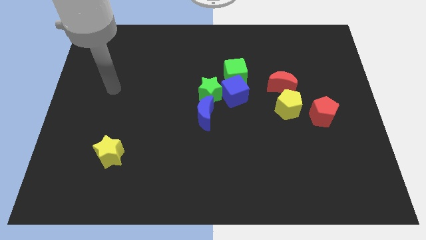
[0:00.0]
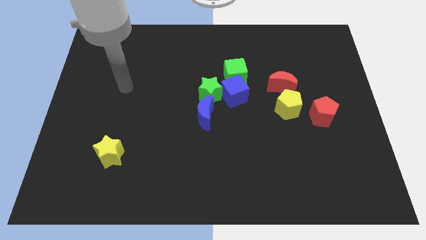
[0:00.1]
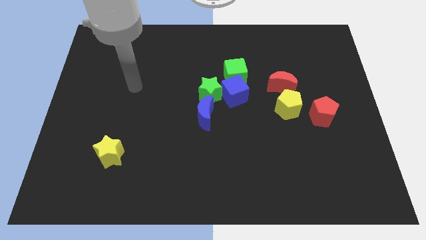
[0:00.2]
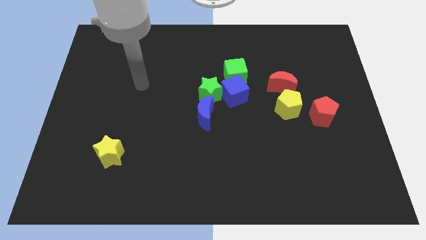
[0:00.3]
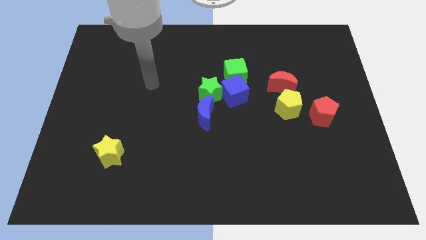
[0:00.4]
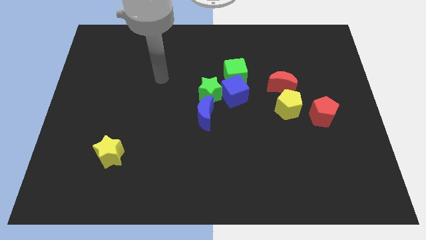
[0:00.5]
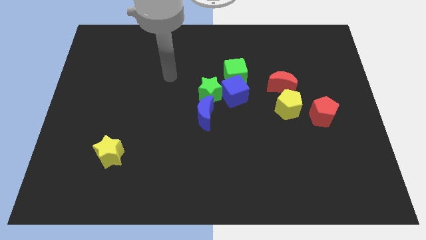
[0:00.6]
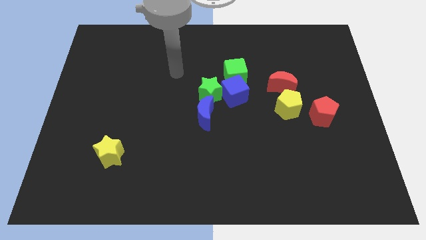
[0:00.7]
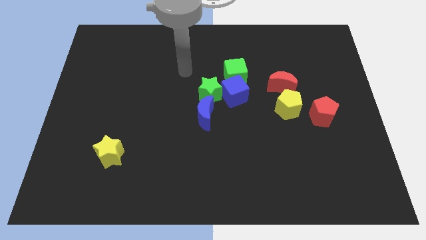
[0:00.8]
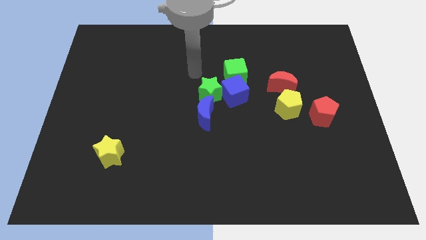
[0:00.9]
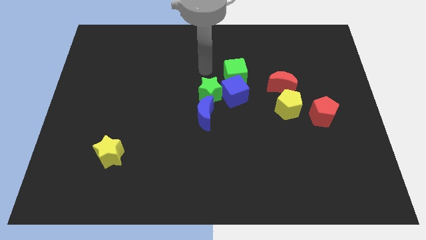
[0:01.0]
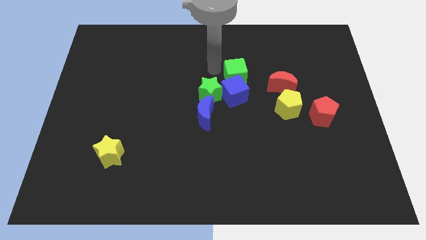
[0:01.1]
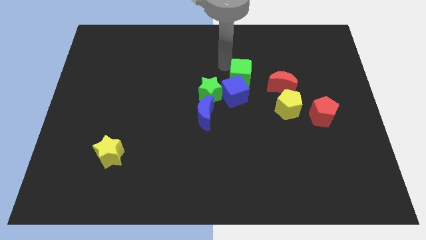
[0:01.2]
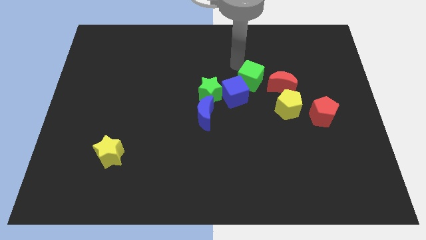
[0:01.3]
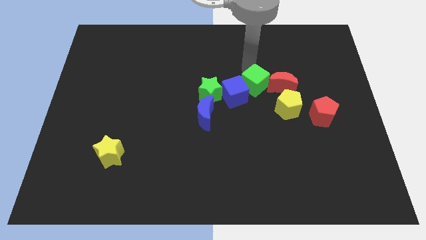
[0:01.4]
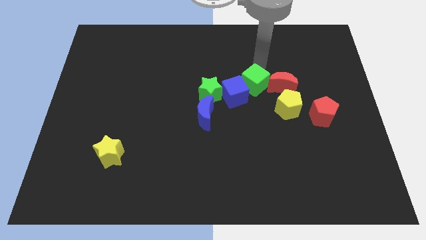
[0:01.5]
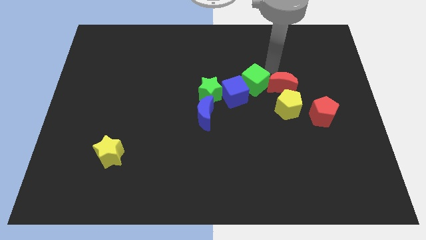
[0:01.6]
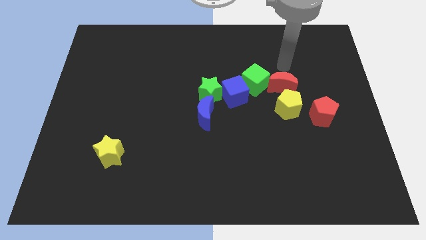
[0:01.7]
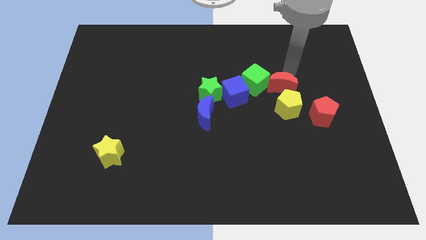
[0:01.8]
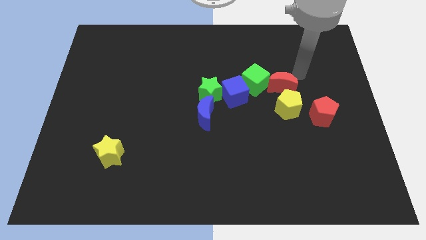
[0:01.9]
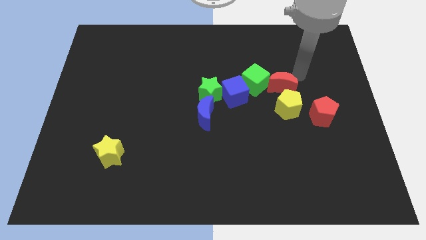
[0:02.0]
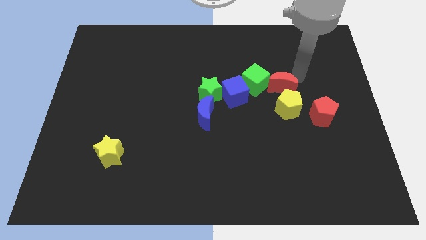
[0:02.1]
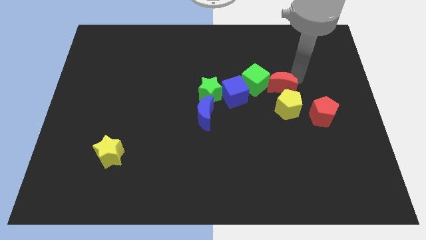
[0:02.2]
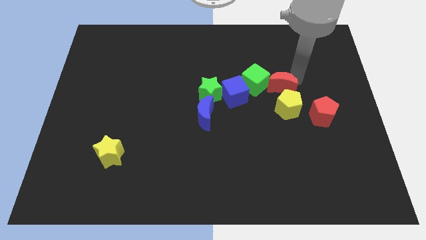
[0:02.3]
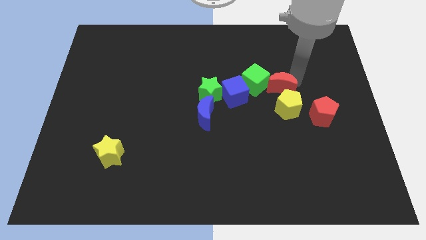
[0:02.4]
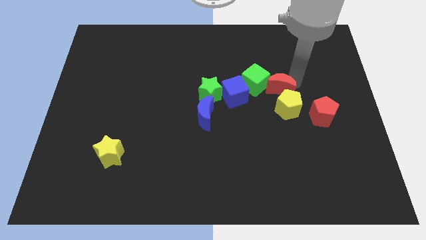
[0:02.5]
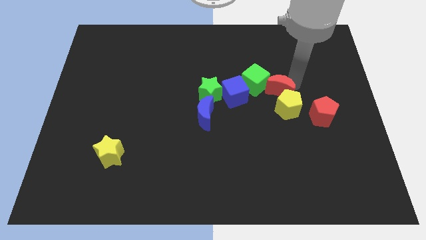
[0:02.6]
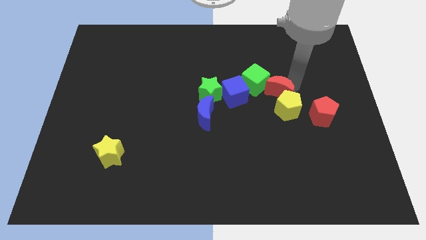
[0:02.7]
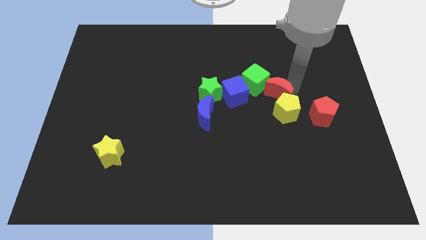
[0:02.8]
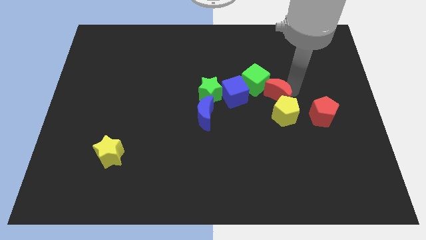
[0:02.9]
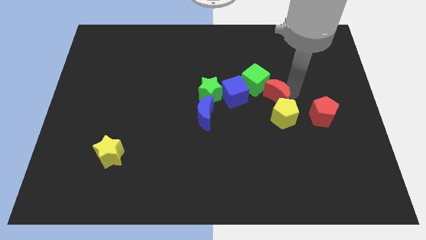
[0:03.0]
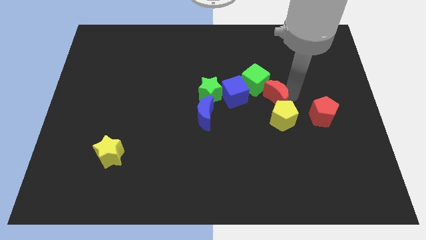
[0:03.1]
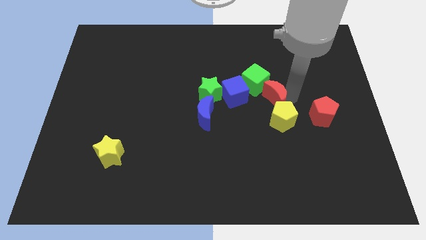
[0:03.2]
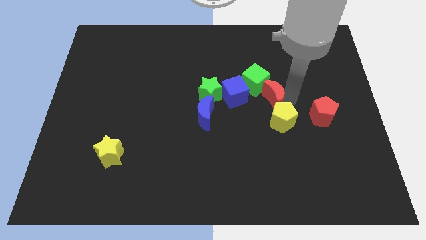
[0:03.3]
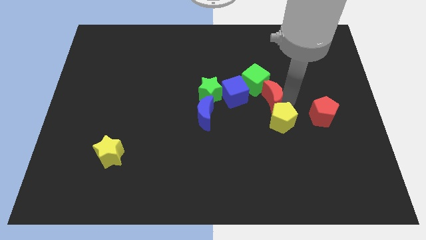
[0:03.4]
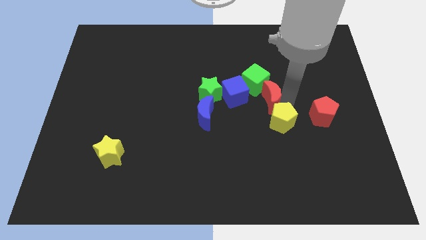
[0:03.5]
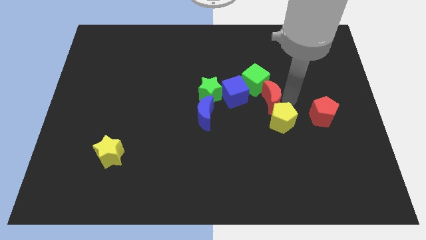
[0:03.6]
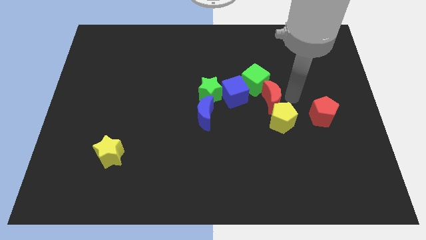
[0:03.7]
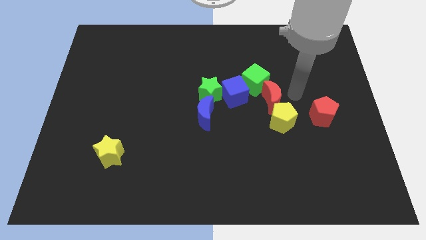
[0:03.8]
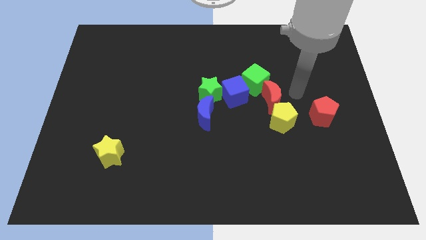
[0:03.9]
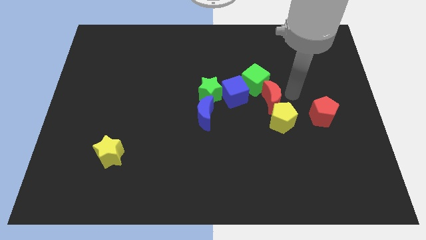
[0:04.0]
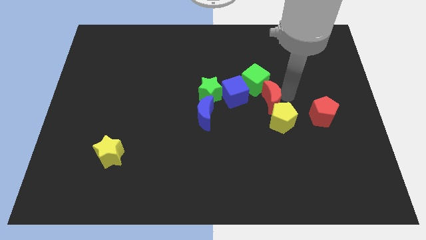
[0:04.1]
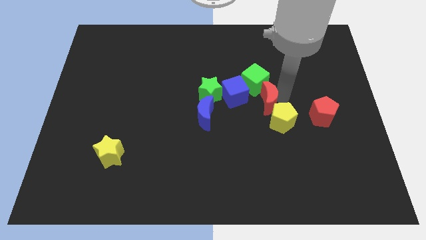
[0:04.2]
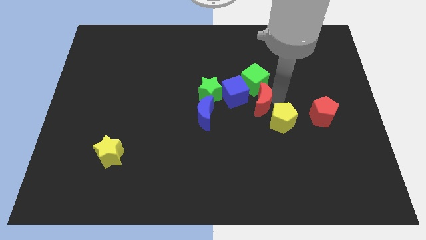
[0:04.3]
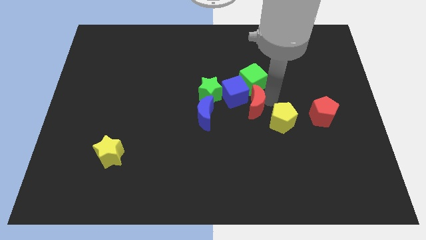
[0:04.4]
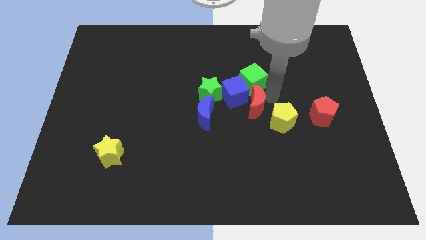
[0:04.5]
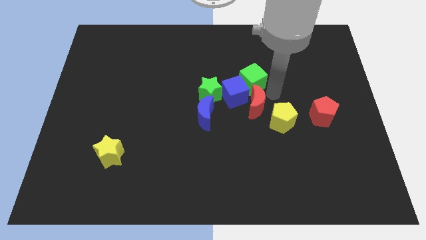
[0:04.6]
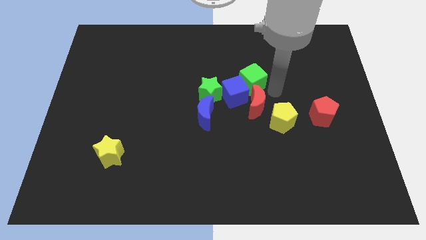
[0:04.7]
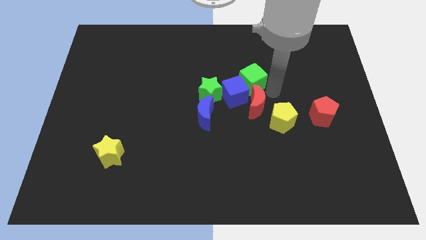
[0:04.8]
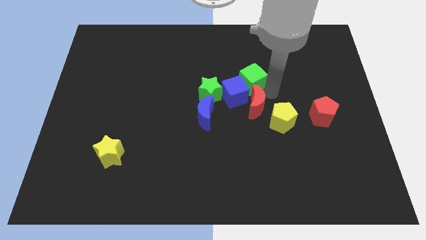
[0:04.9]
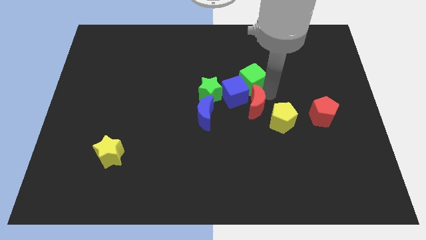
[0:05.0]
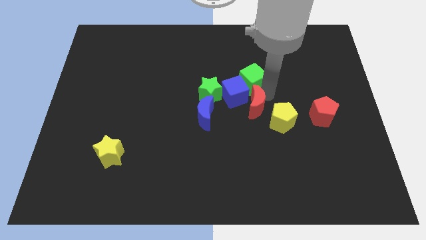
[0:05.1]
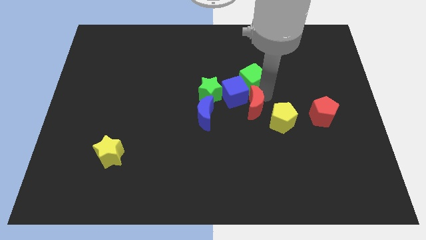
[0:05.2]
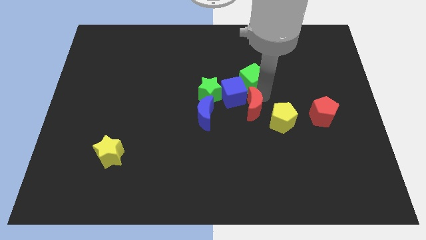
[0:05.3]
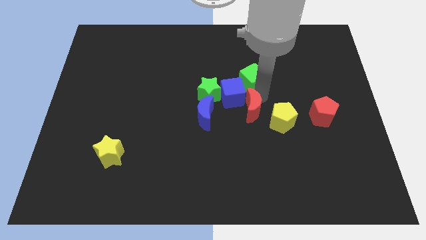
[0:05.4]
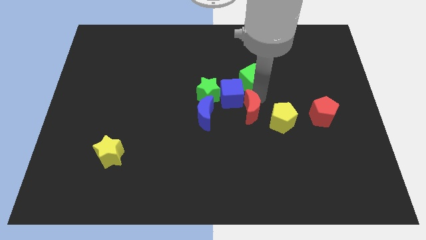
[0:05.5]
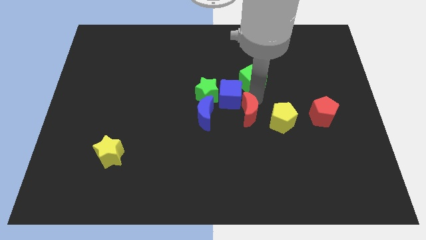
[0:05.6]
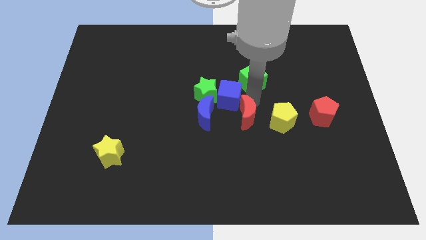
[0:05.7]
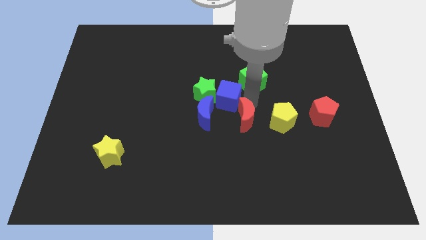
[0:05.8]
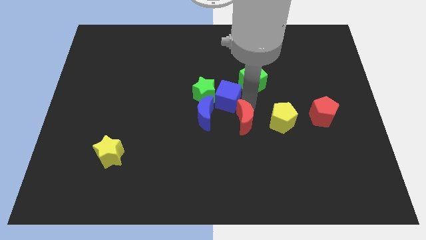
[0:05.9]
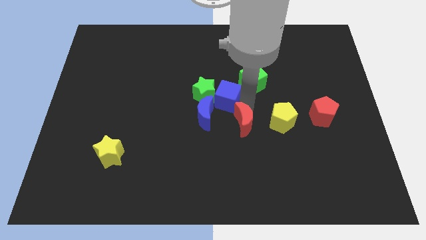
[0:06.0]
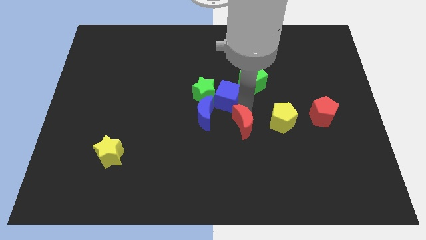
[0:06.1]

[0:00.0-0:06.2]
move the red moon diagonally down and to the right of the blue moon

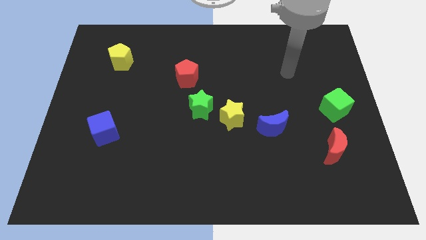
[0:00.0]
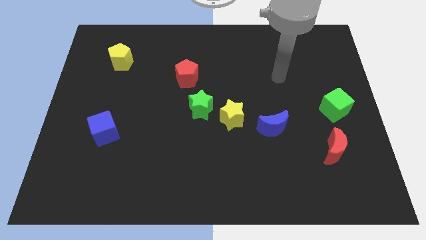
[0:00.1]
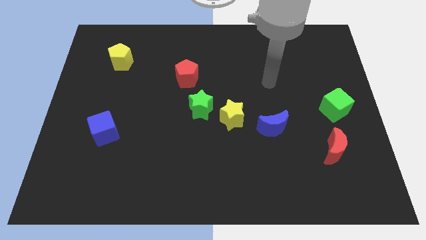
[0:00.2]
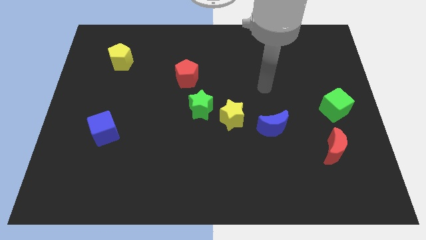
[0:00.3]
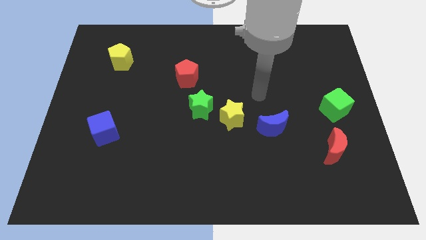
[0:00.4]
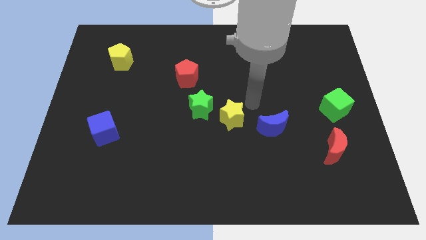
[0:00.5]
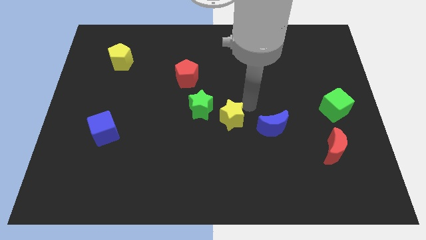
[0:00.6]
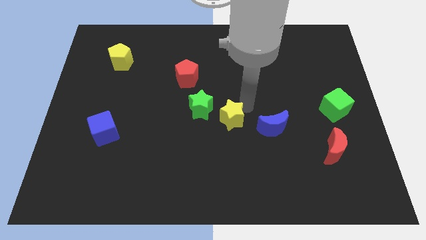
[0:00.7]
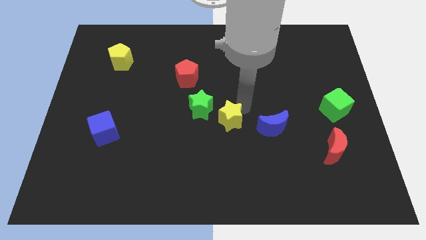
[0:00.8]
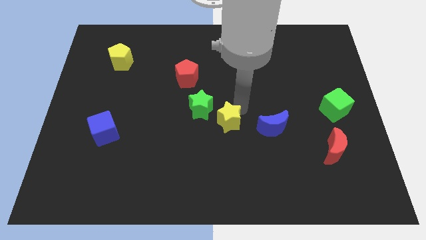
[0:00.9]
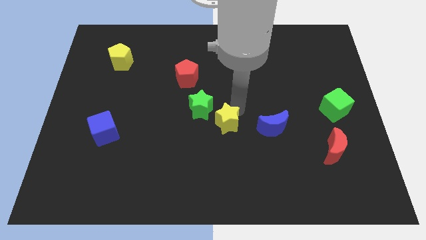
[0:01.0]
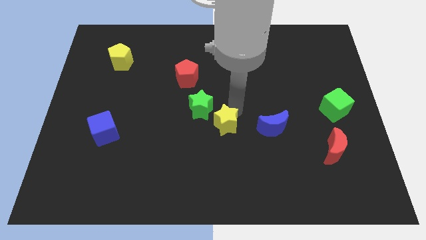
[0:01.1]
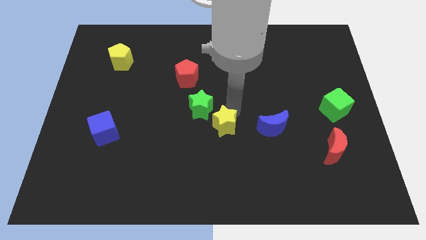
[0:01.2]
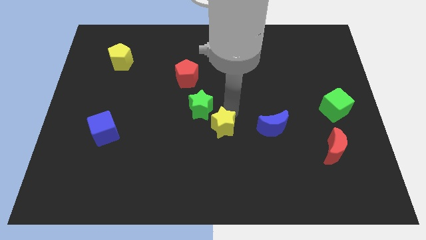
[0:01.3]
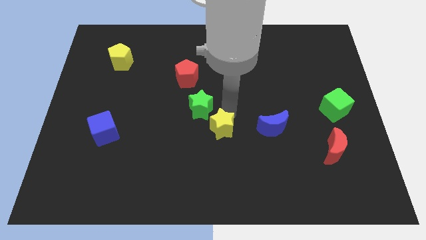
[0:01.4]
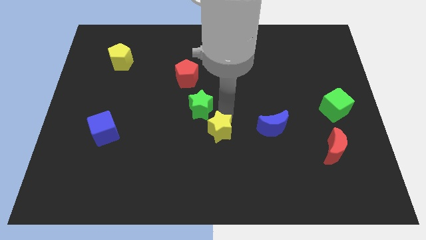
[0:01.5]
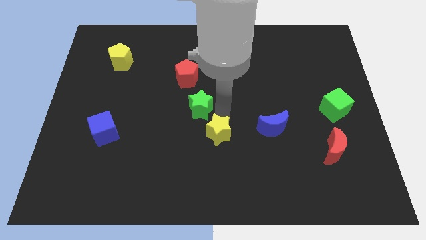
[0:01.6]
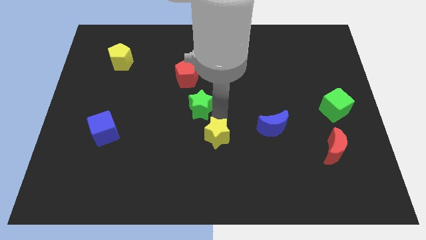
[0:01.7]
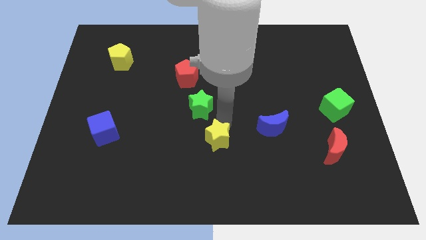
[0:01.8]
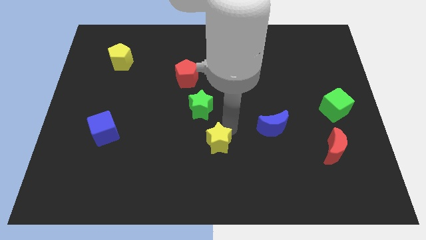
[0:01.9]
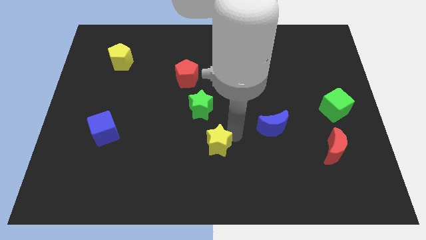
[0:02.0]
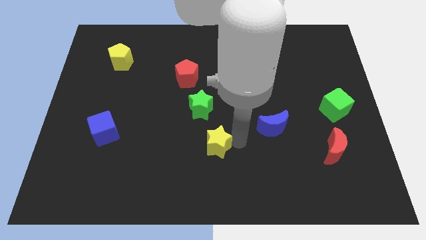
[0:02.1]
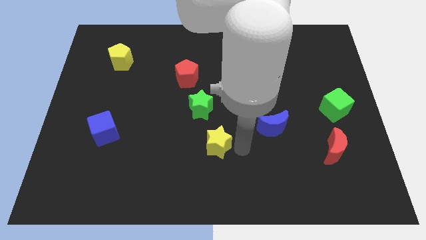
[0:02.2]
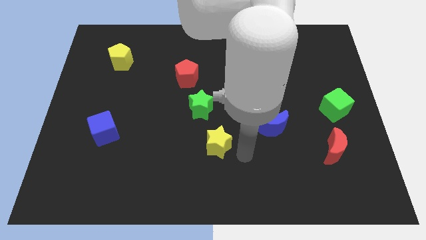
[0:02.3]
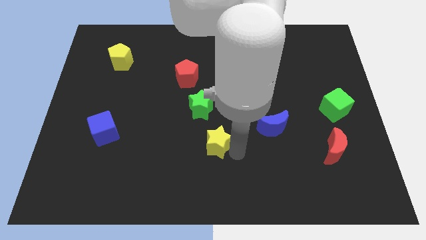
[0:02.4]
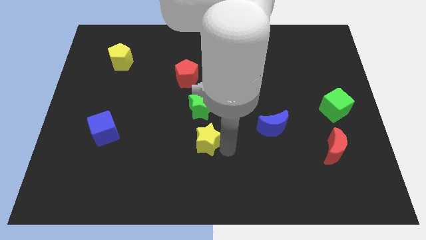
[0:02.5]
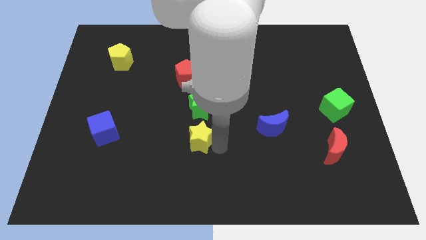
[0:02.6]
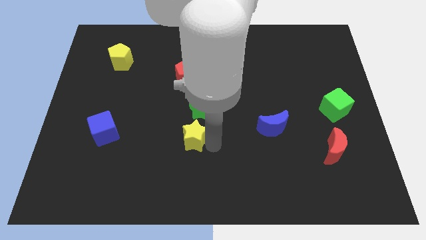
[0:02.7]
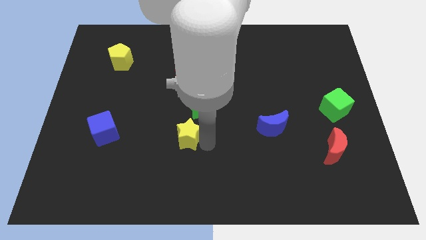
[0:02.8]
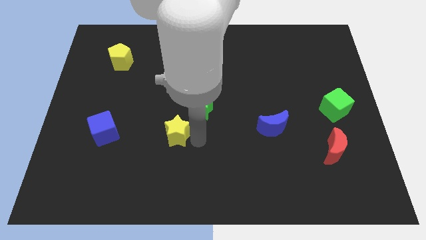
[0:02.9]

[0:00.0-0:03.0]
move the yellow star right of the blue cube
